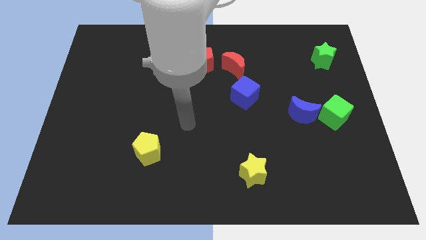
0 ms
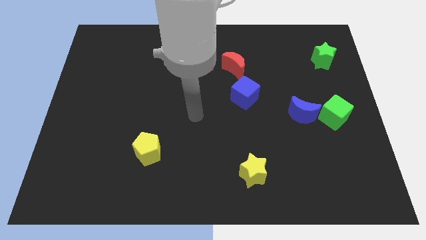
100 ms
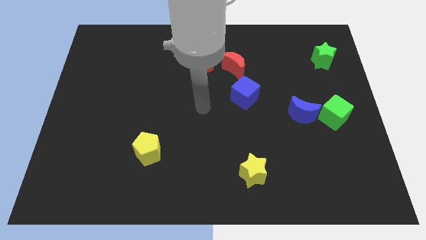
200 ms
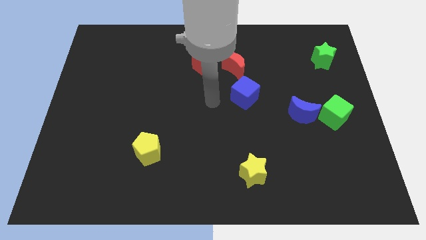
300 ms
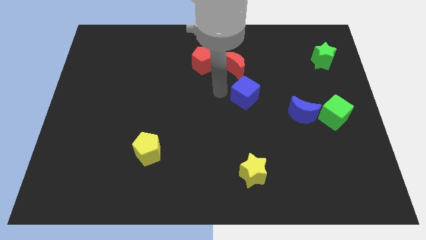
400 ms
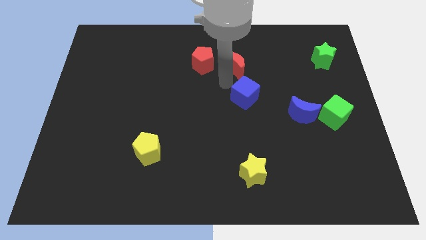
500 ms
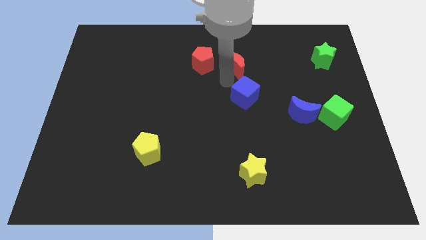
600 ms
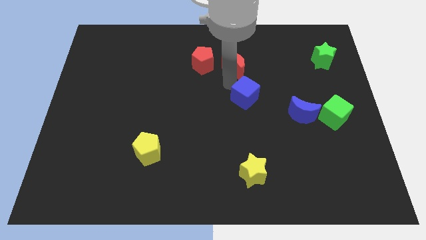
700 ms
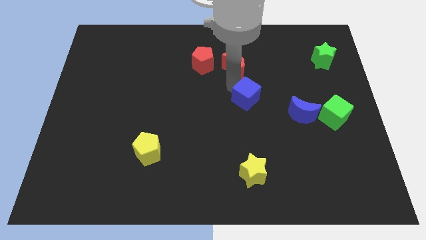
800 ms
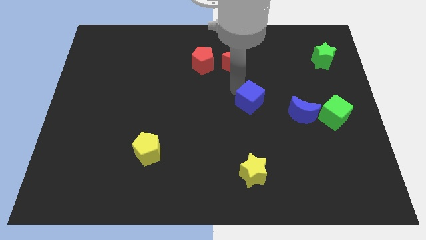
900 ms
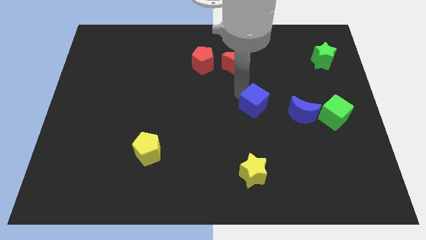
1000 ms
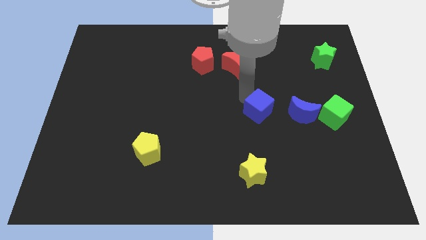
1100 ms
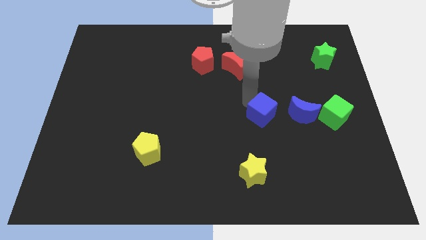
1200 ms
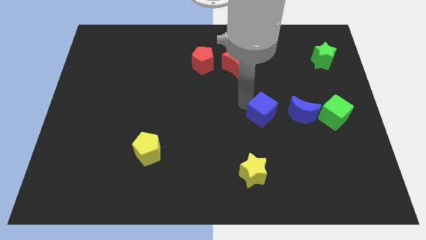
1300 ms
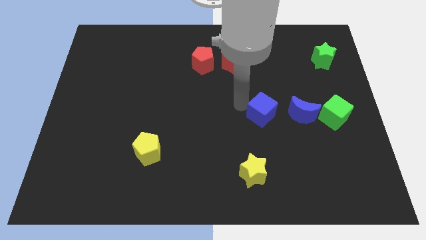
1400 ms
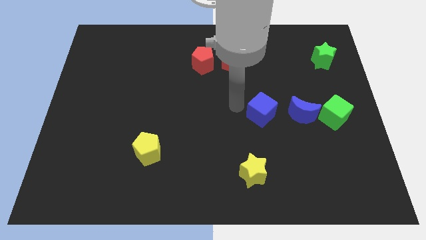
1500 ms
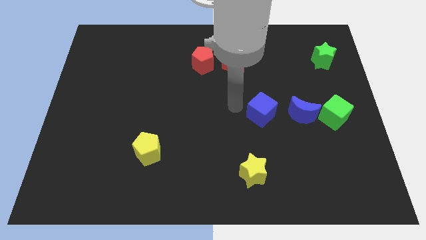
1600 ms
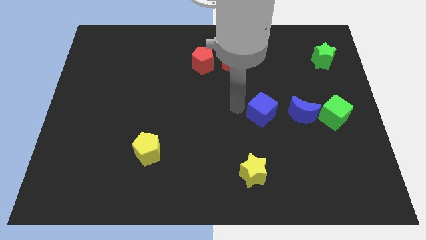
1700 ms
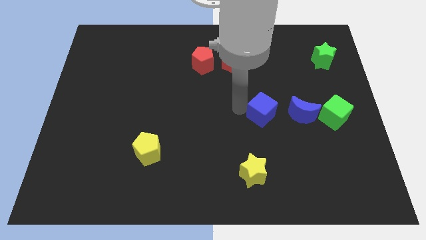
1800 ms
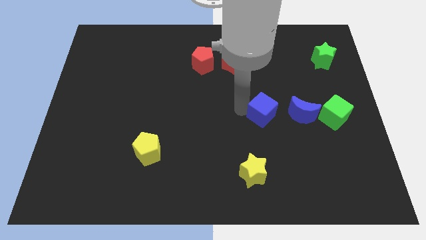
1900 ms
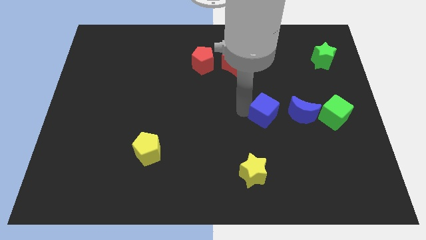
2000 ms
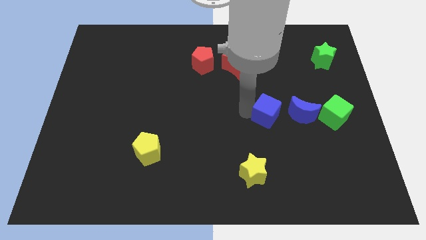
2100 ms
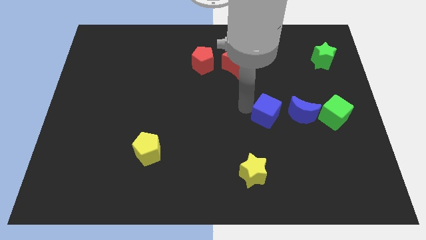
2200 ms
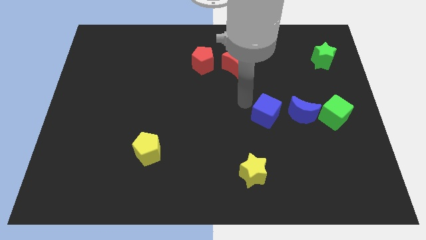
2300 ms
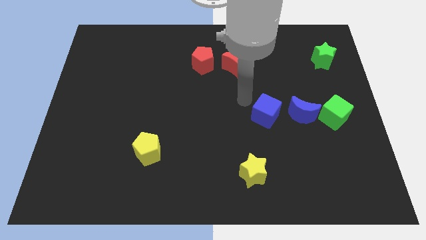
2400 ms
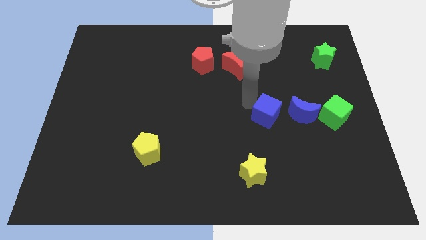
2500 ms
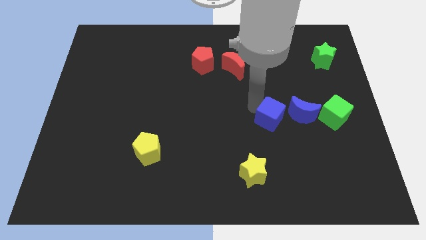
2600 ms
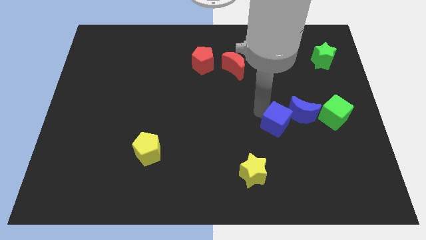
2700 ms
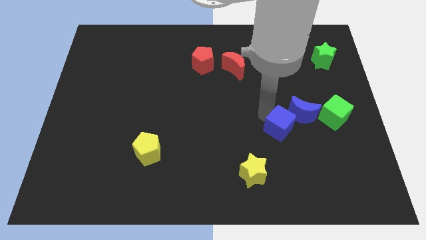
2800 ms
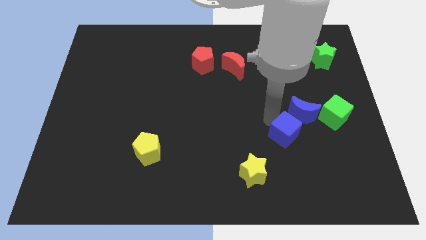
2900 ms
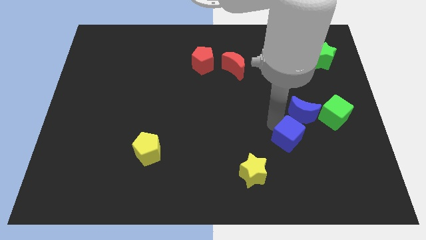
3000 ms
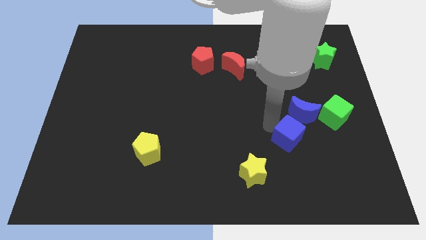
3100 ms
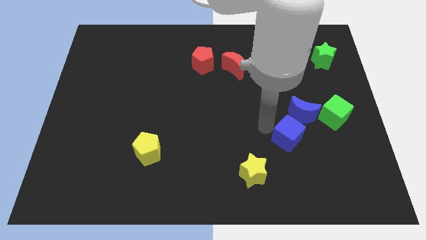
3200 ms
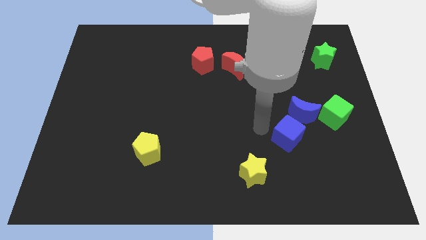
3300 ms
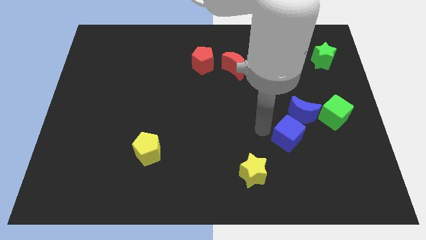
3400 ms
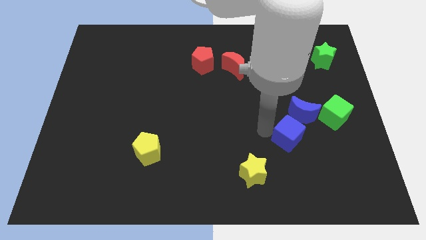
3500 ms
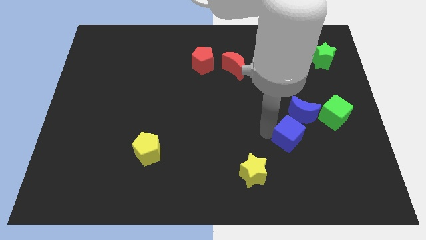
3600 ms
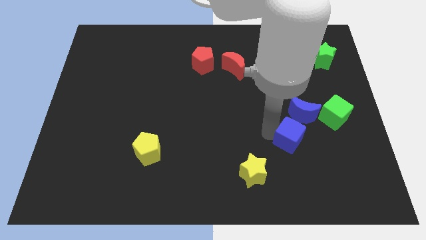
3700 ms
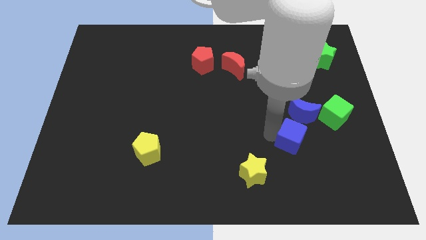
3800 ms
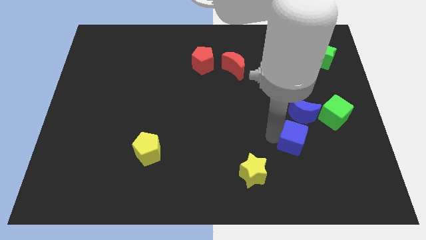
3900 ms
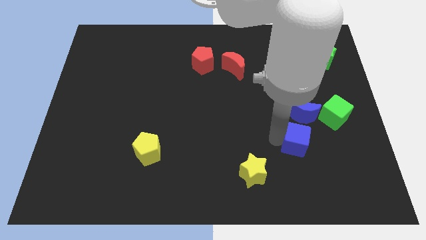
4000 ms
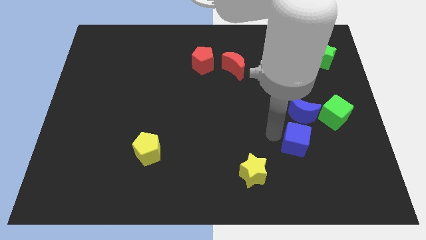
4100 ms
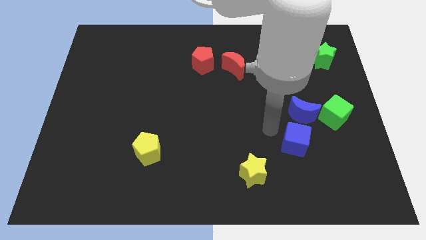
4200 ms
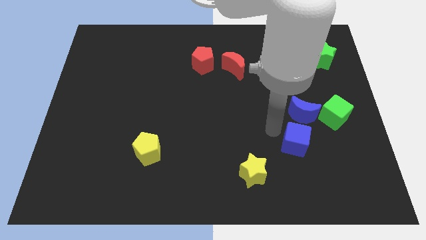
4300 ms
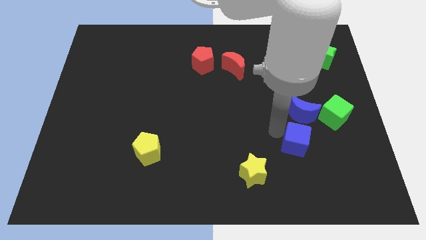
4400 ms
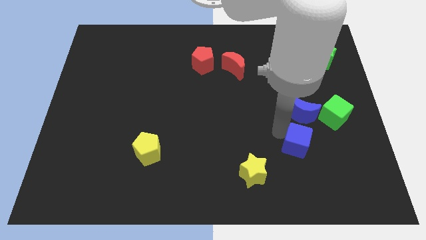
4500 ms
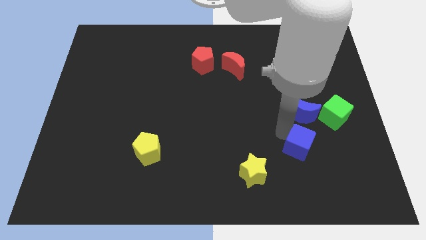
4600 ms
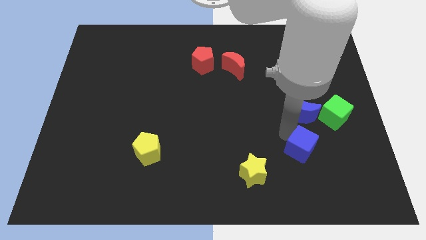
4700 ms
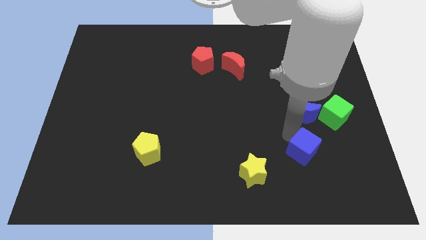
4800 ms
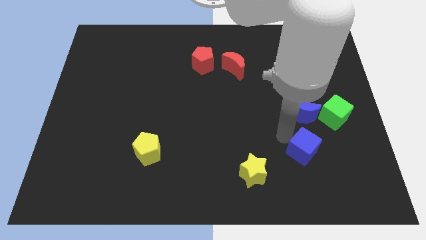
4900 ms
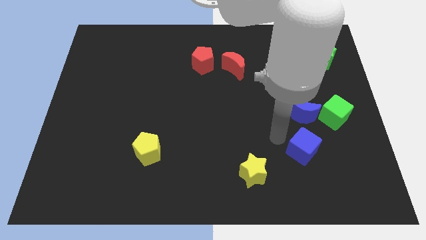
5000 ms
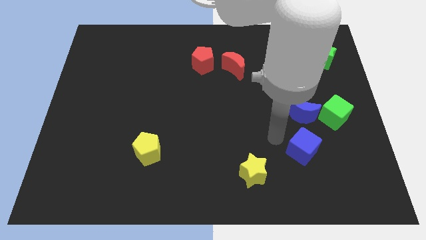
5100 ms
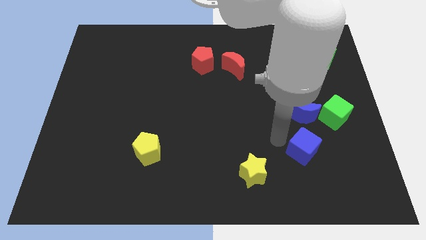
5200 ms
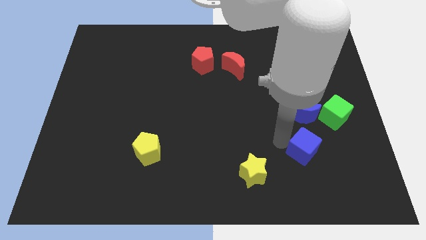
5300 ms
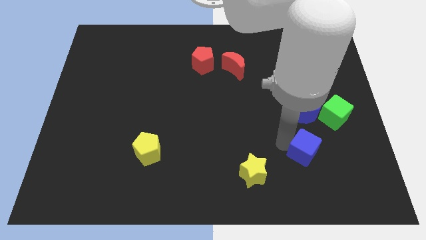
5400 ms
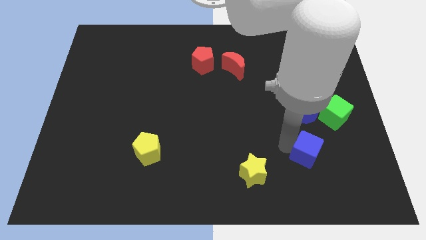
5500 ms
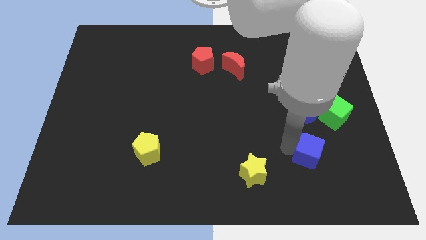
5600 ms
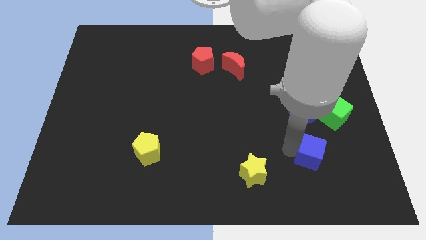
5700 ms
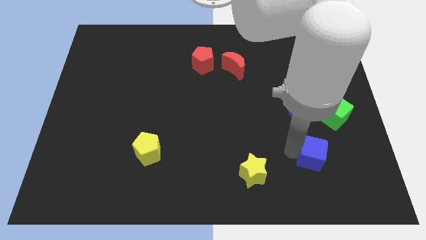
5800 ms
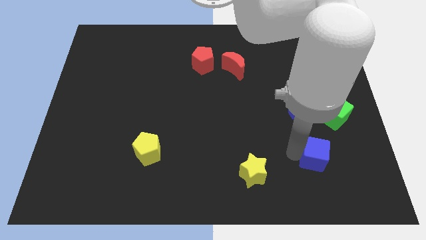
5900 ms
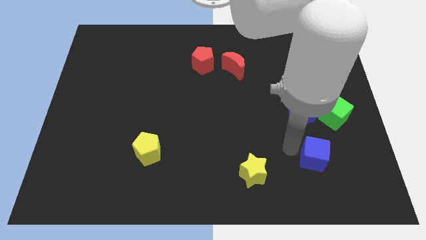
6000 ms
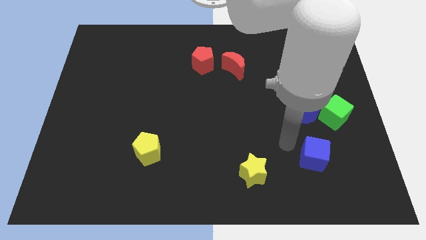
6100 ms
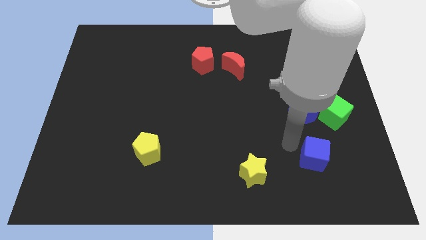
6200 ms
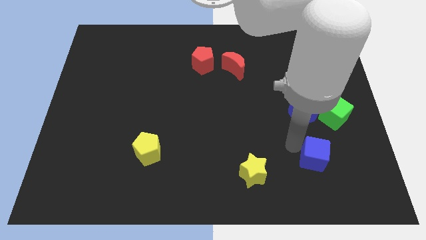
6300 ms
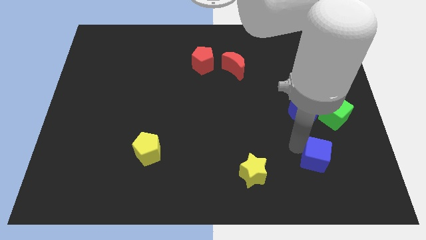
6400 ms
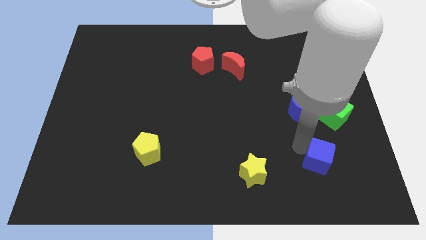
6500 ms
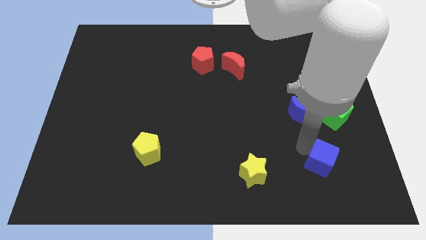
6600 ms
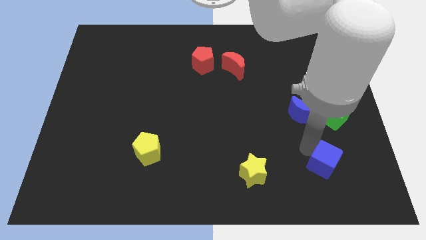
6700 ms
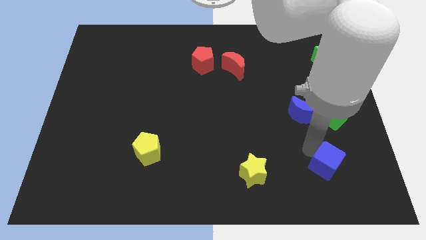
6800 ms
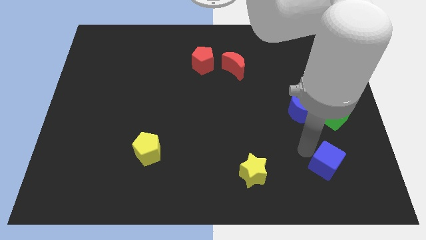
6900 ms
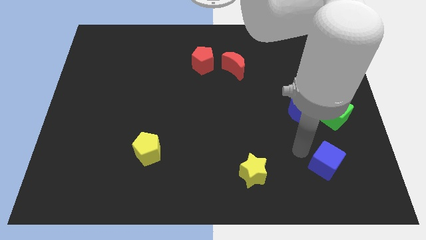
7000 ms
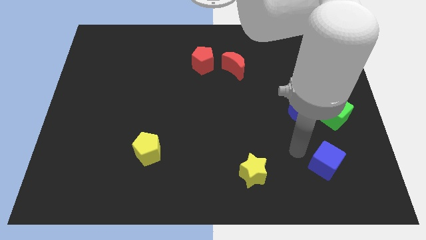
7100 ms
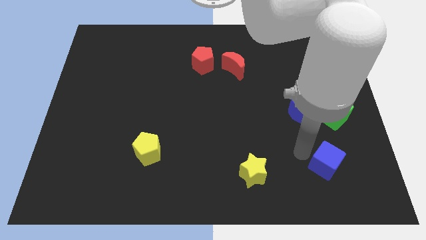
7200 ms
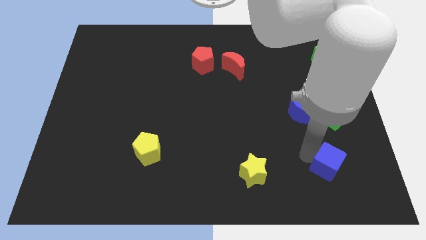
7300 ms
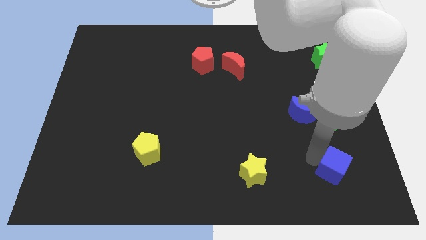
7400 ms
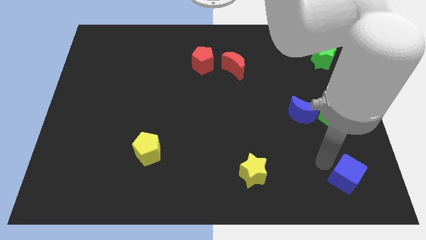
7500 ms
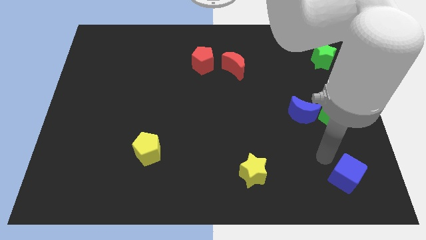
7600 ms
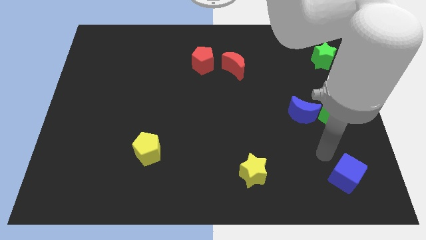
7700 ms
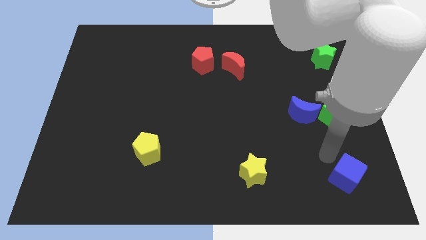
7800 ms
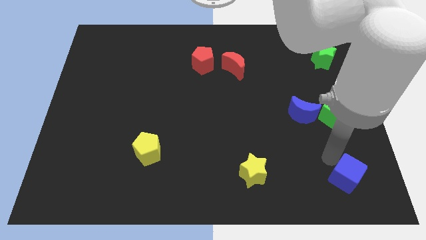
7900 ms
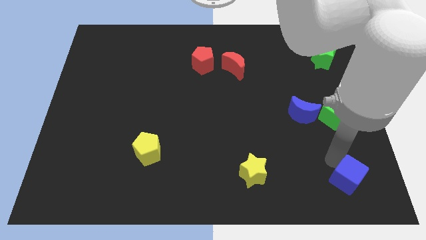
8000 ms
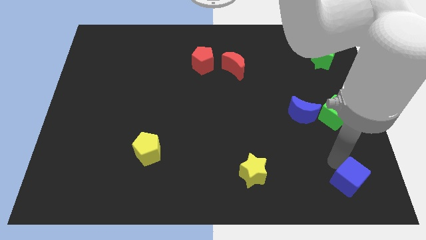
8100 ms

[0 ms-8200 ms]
push the blue cube to the bottom right of the board
